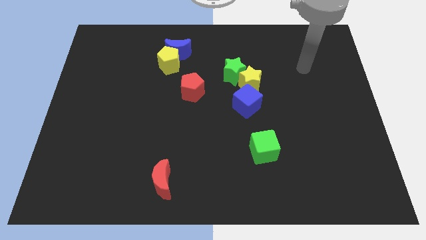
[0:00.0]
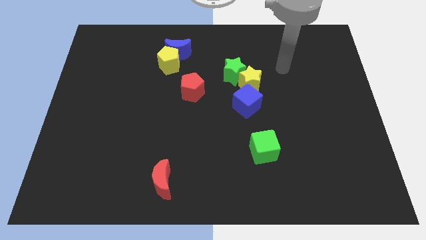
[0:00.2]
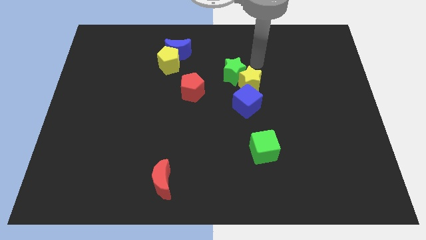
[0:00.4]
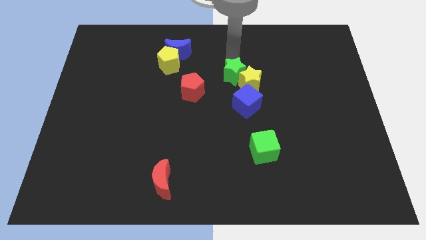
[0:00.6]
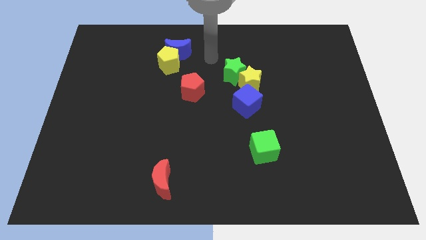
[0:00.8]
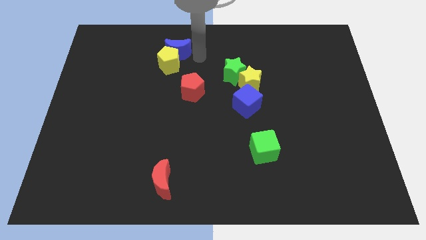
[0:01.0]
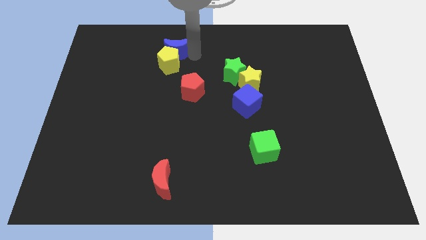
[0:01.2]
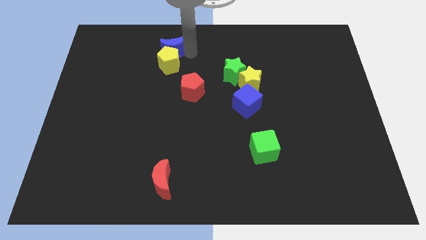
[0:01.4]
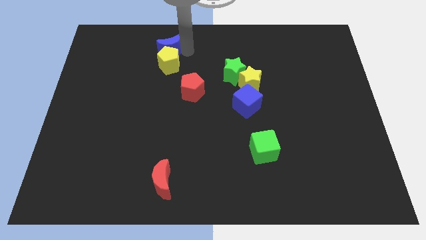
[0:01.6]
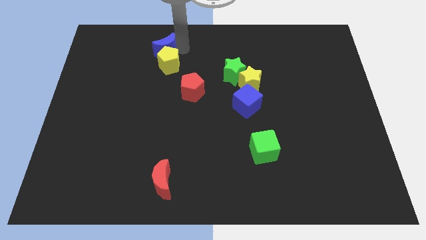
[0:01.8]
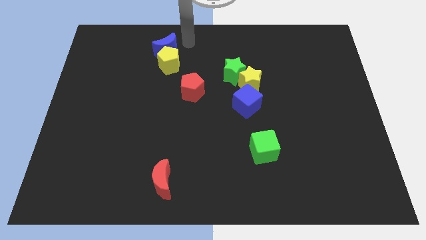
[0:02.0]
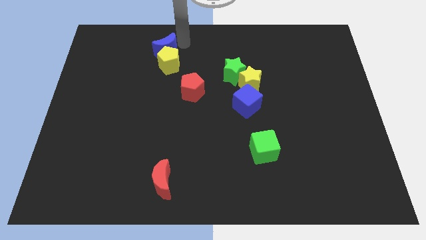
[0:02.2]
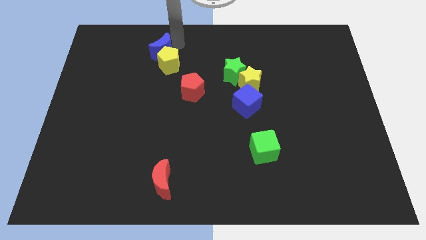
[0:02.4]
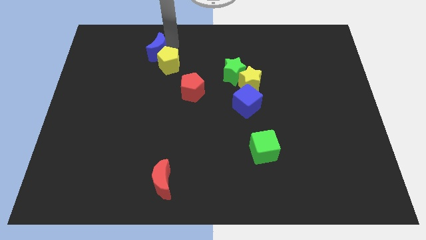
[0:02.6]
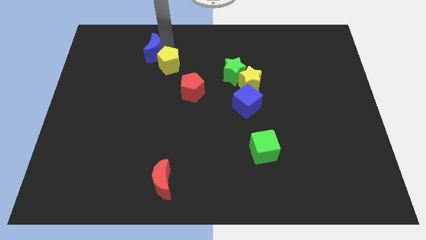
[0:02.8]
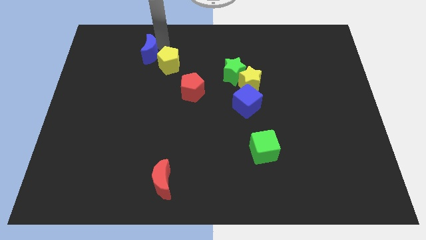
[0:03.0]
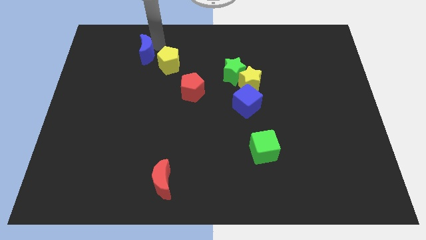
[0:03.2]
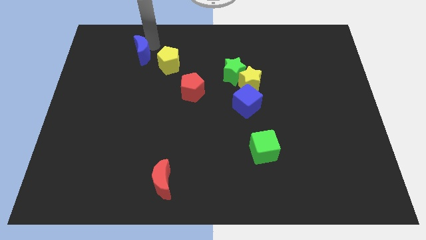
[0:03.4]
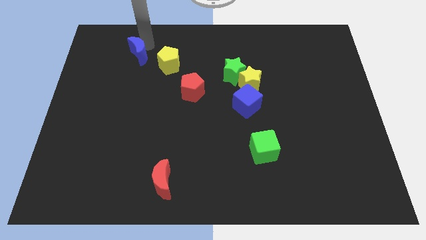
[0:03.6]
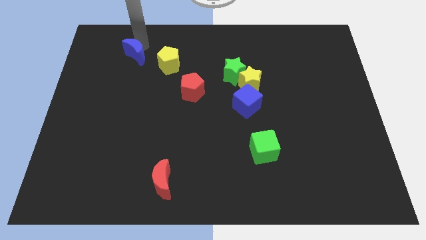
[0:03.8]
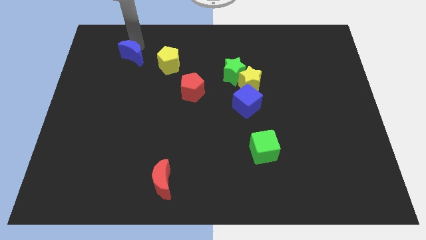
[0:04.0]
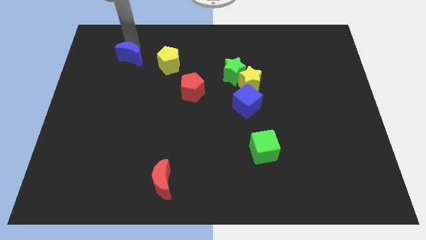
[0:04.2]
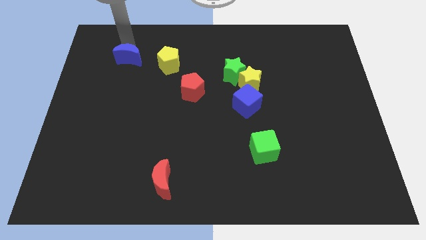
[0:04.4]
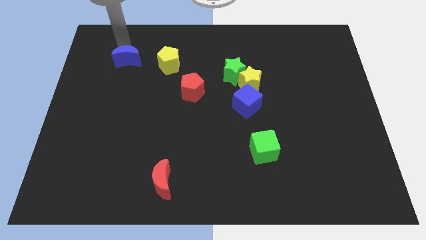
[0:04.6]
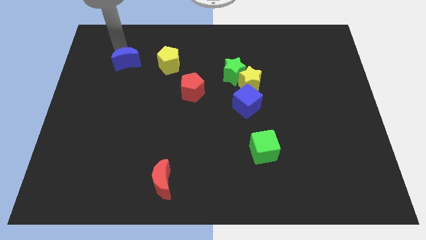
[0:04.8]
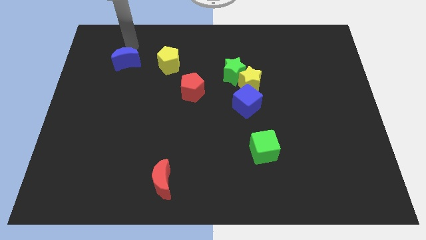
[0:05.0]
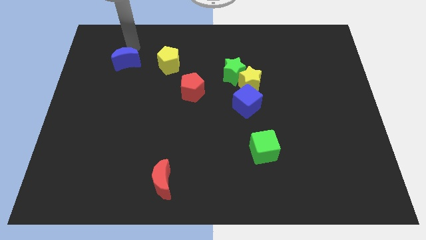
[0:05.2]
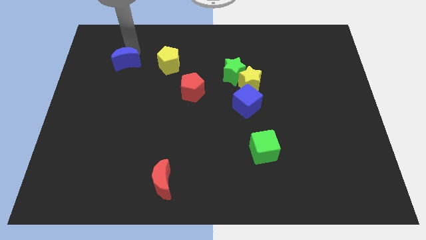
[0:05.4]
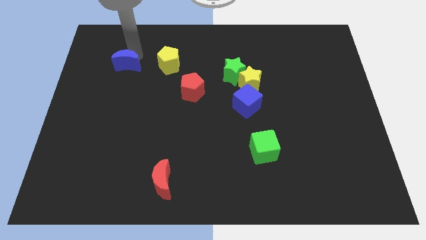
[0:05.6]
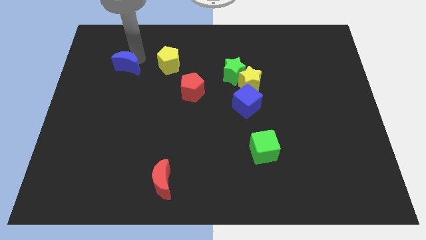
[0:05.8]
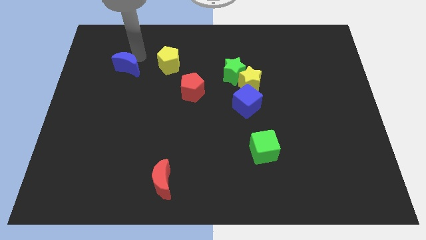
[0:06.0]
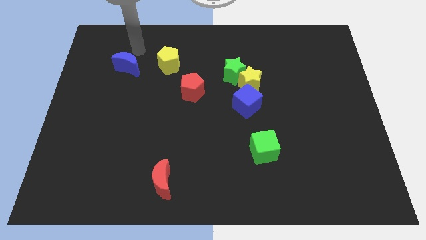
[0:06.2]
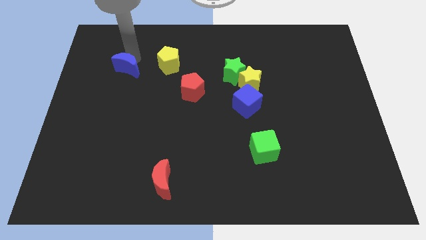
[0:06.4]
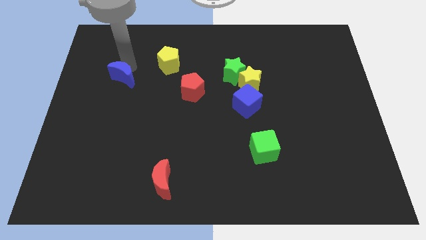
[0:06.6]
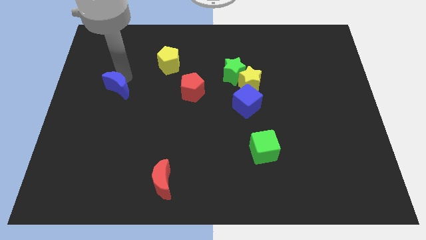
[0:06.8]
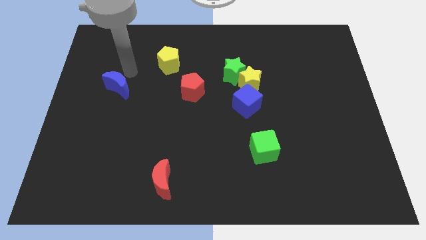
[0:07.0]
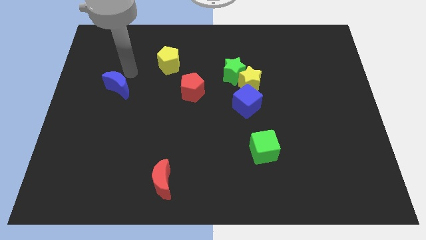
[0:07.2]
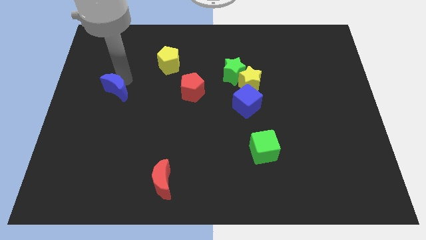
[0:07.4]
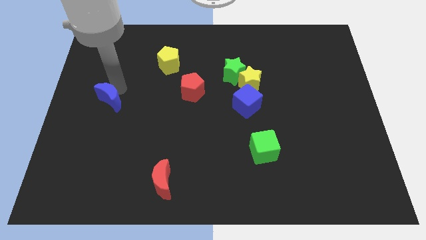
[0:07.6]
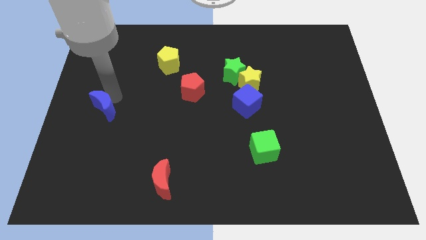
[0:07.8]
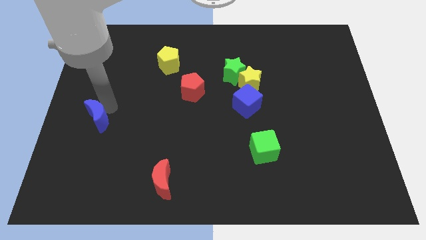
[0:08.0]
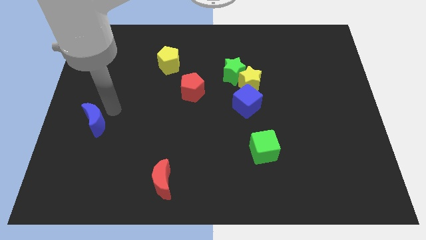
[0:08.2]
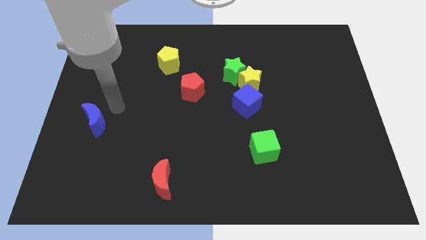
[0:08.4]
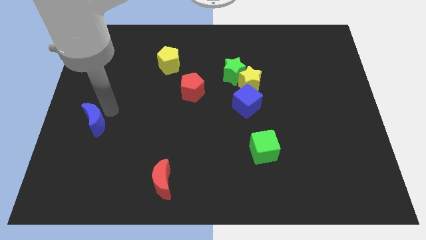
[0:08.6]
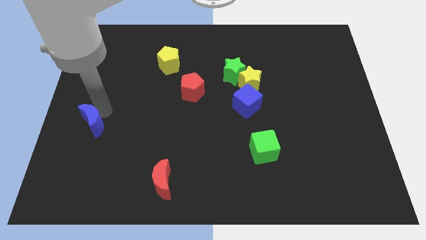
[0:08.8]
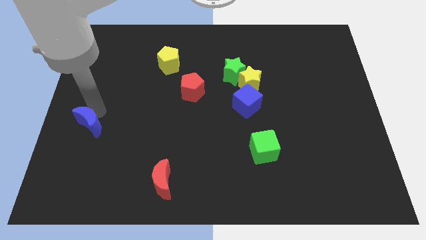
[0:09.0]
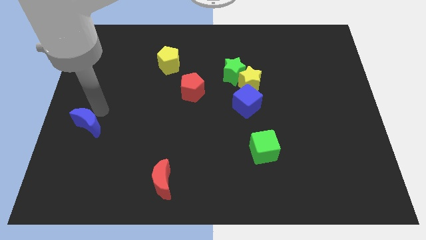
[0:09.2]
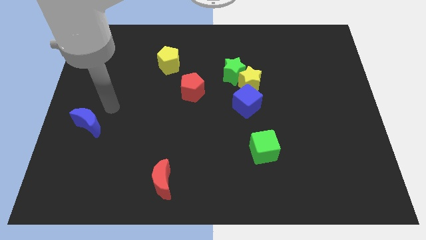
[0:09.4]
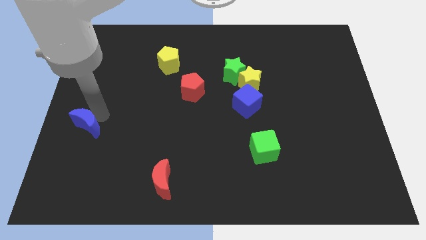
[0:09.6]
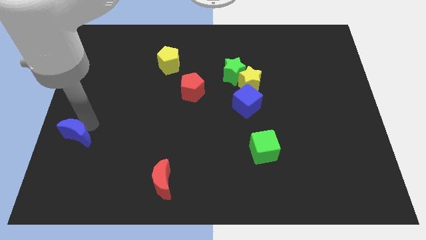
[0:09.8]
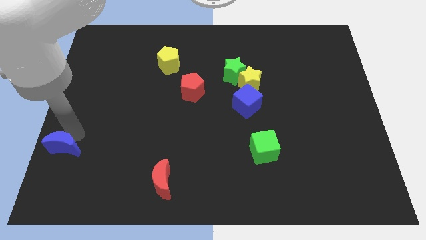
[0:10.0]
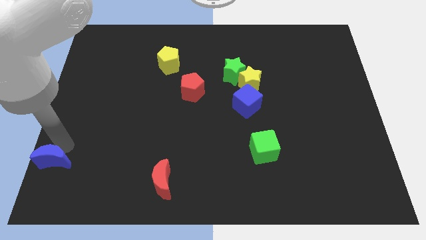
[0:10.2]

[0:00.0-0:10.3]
push the blue moon to the lower left corner
